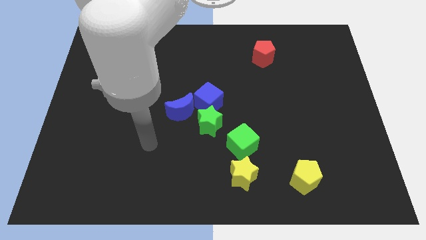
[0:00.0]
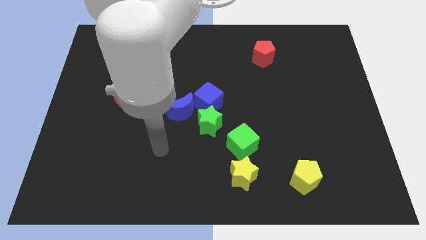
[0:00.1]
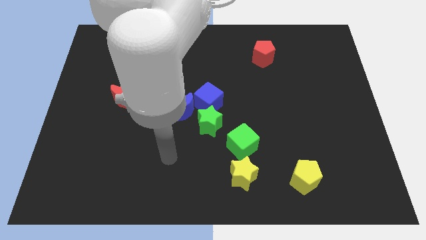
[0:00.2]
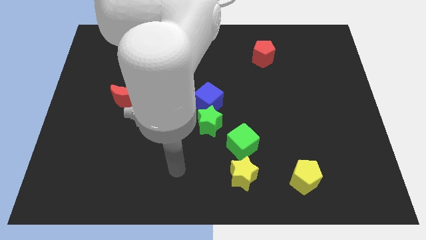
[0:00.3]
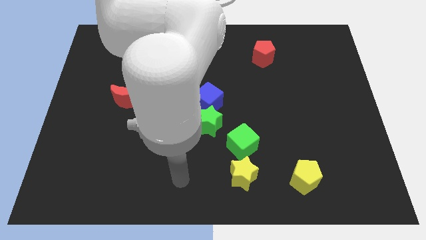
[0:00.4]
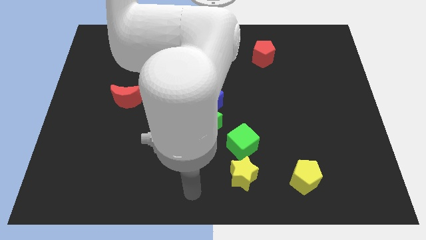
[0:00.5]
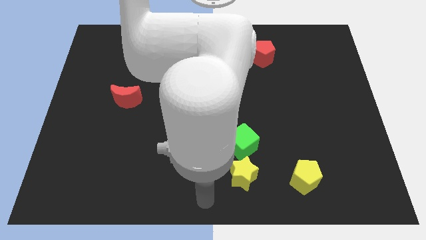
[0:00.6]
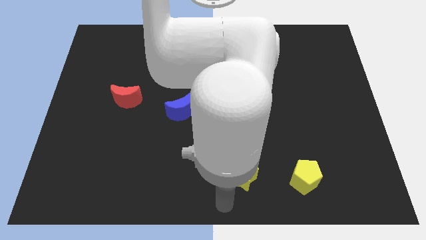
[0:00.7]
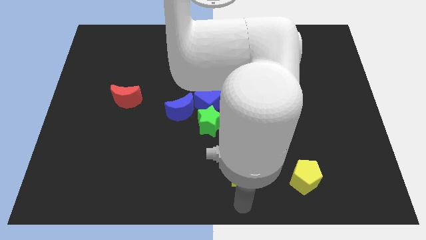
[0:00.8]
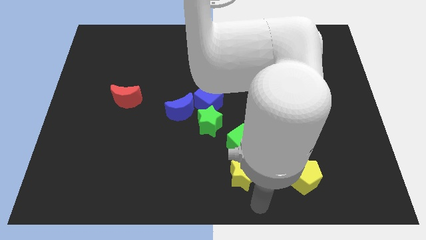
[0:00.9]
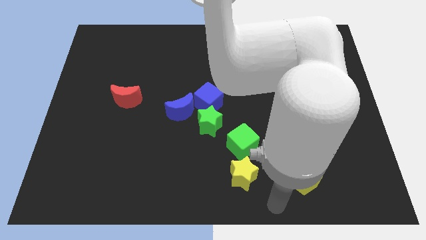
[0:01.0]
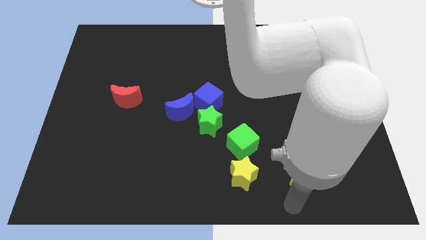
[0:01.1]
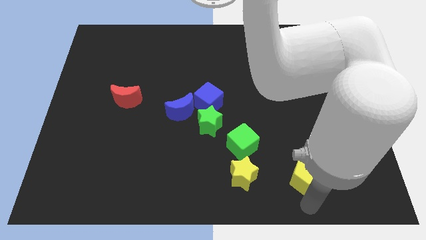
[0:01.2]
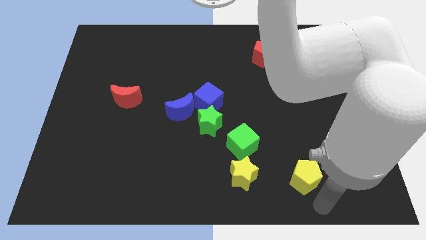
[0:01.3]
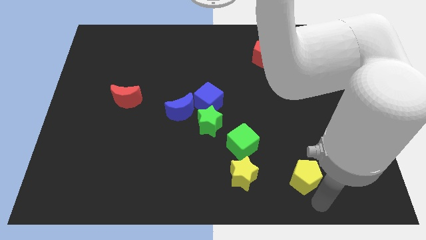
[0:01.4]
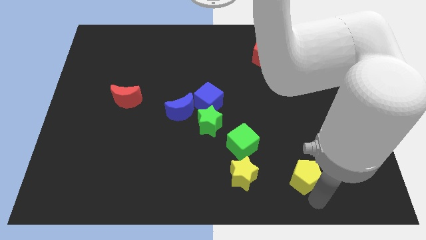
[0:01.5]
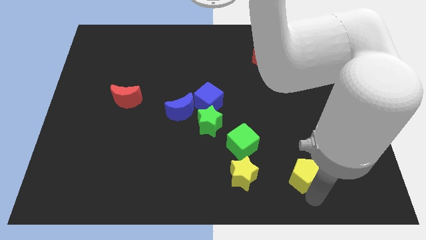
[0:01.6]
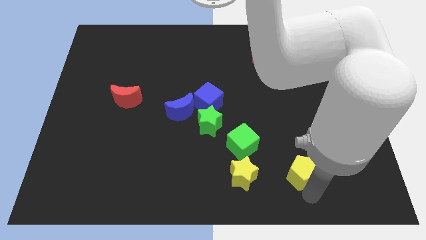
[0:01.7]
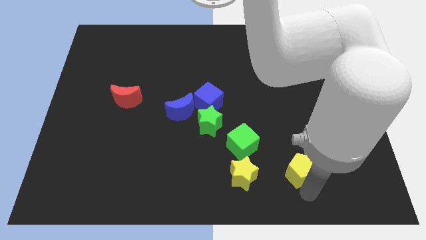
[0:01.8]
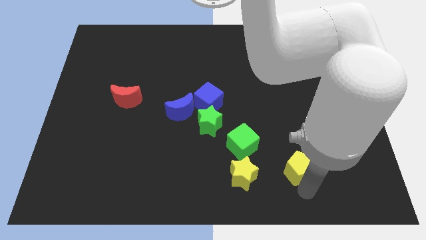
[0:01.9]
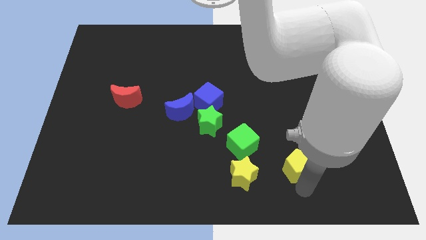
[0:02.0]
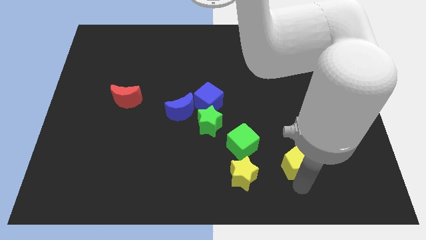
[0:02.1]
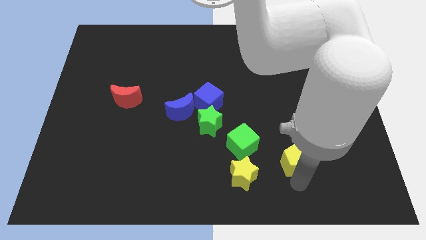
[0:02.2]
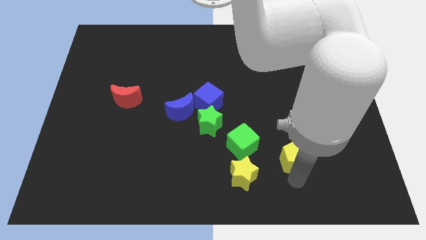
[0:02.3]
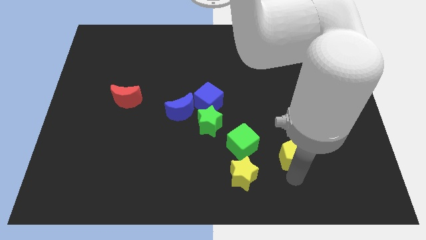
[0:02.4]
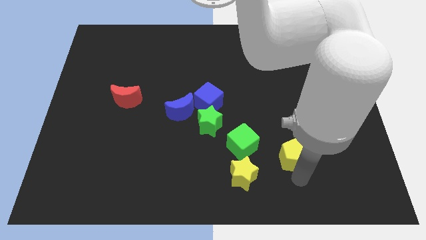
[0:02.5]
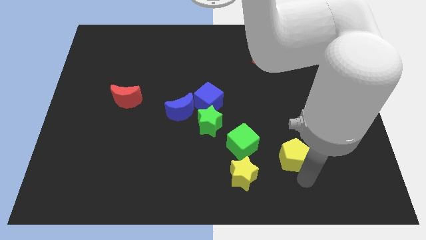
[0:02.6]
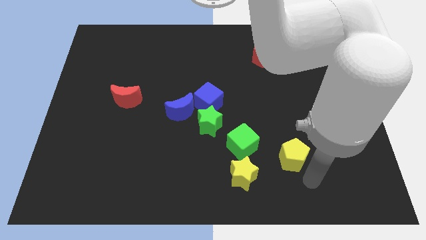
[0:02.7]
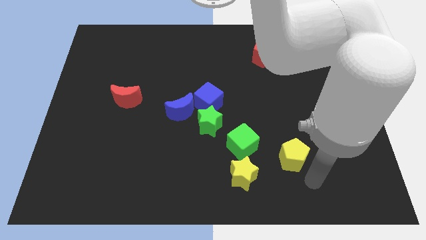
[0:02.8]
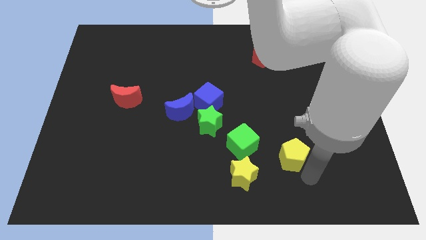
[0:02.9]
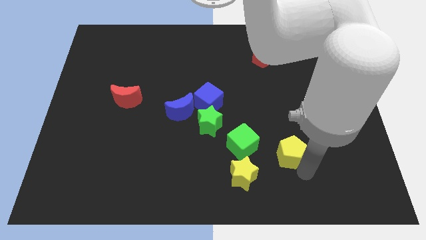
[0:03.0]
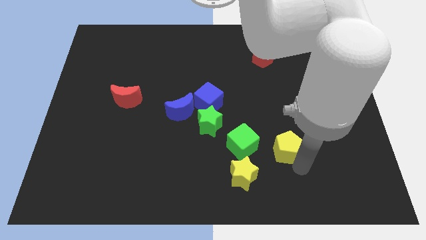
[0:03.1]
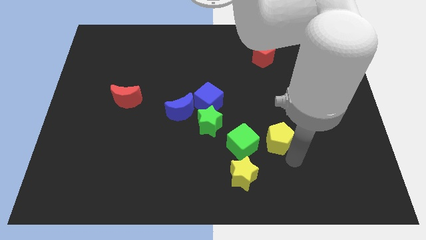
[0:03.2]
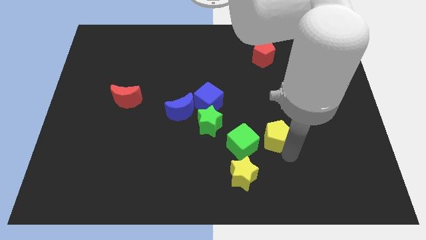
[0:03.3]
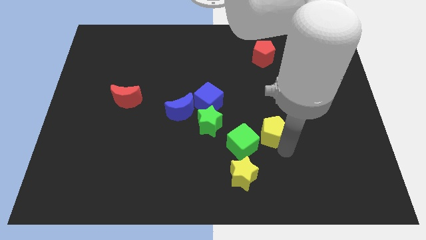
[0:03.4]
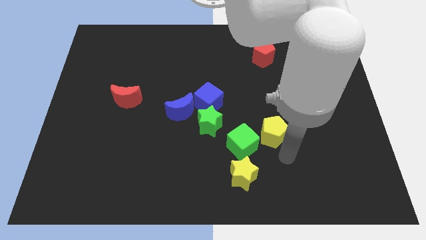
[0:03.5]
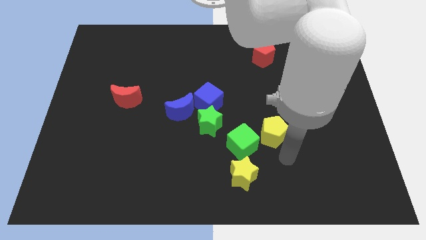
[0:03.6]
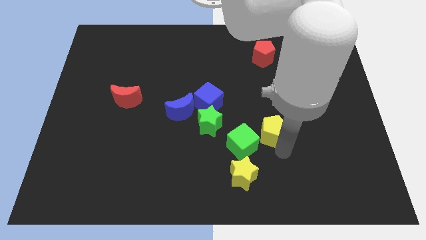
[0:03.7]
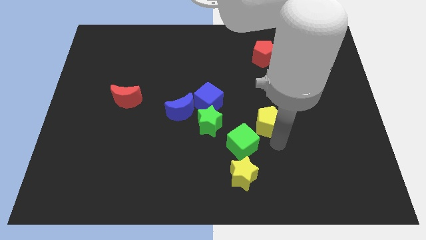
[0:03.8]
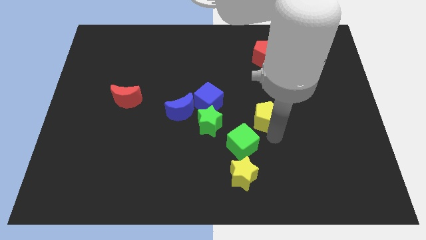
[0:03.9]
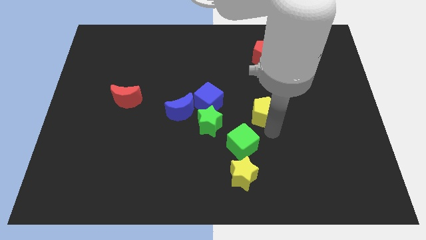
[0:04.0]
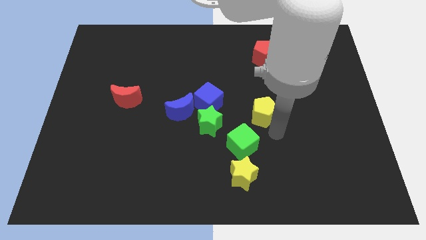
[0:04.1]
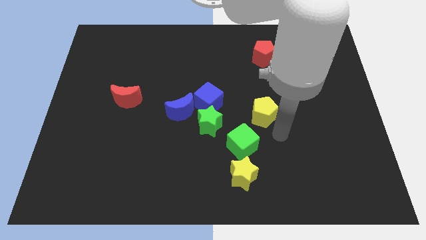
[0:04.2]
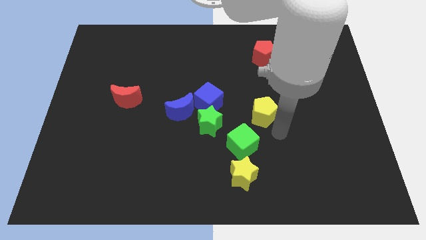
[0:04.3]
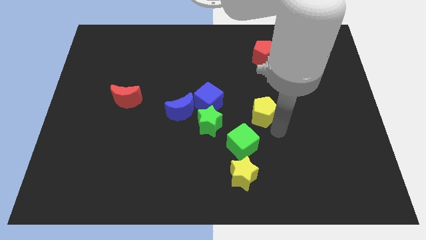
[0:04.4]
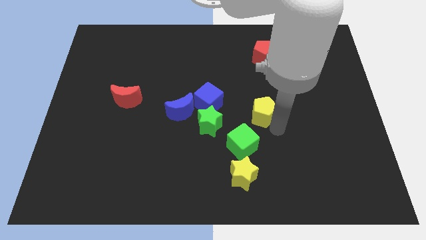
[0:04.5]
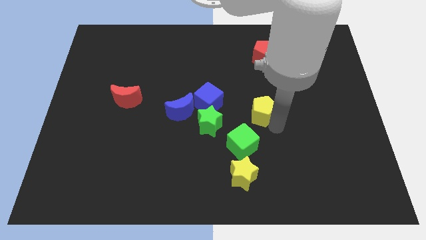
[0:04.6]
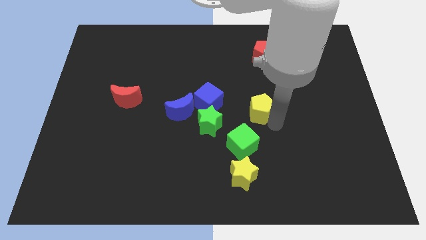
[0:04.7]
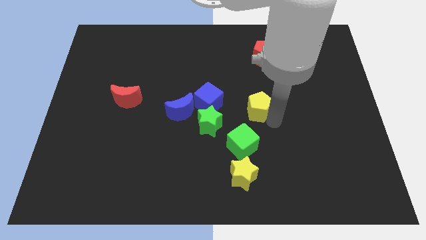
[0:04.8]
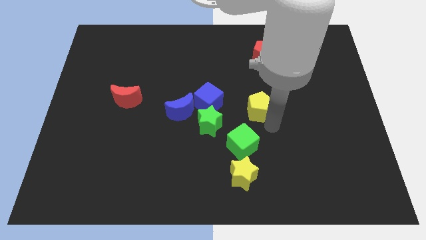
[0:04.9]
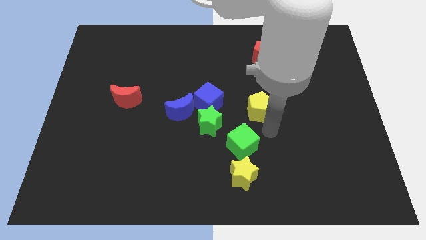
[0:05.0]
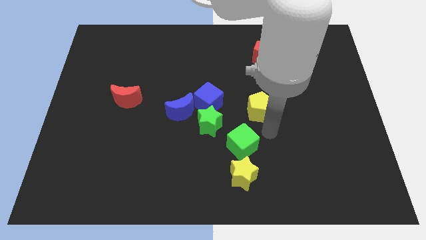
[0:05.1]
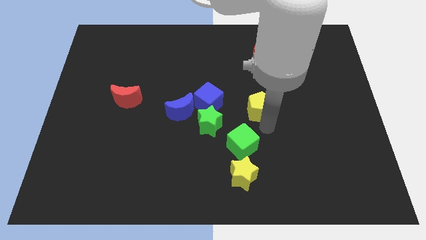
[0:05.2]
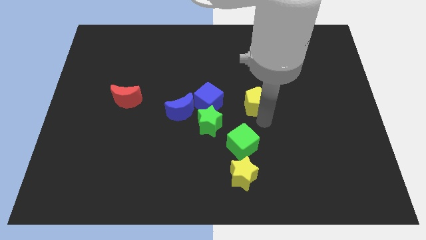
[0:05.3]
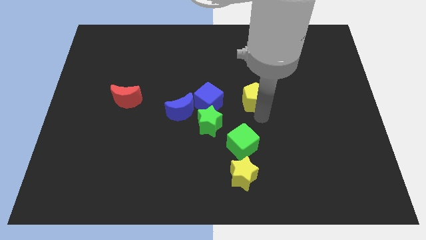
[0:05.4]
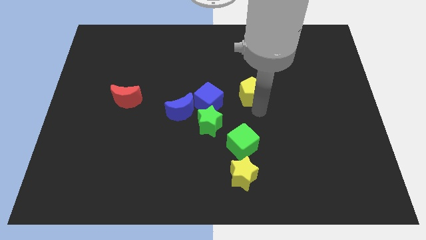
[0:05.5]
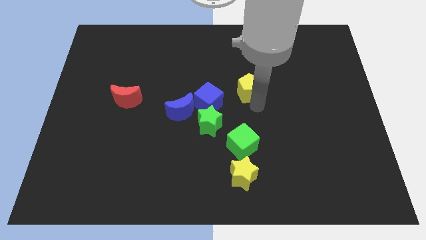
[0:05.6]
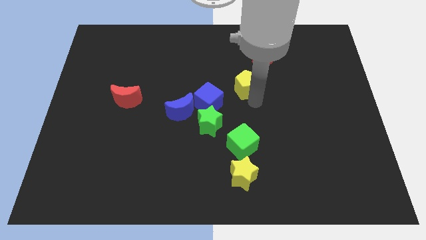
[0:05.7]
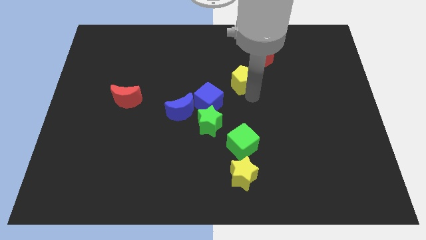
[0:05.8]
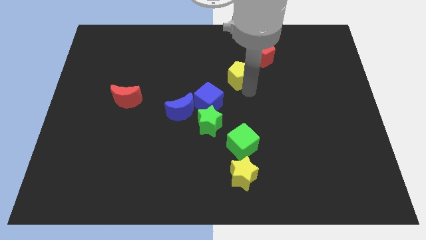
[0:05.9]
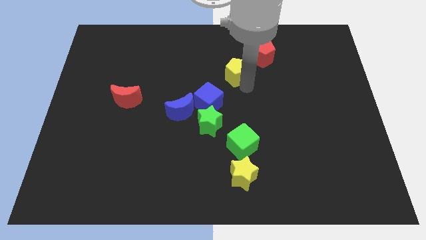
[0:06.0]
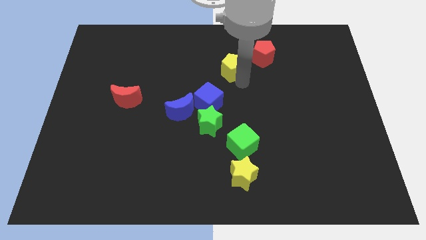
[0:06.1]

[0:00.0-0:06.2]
slide the yellow pentagon left of the red pentagon

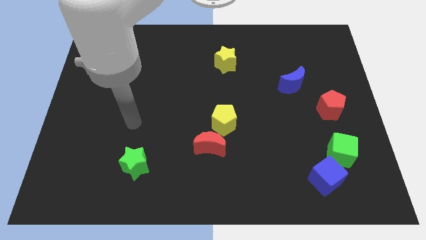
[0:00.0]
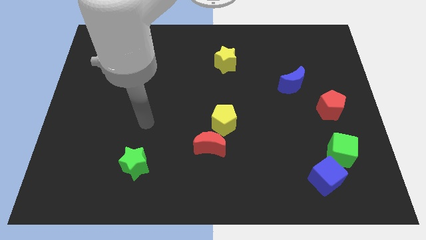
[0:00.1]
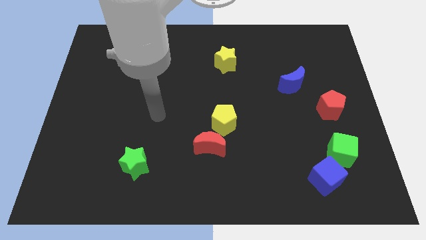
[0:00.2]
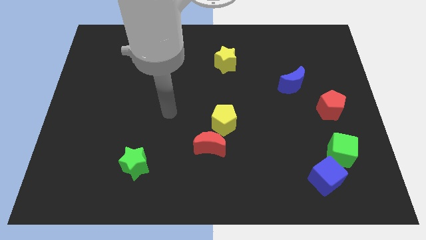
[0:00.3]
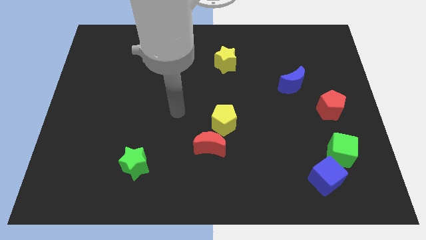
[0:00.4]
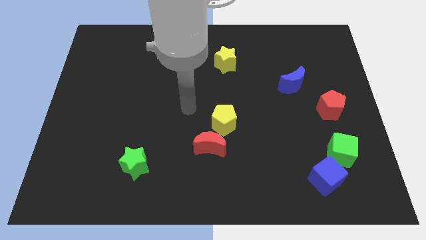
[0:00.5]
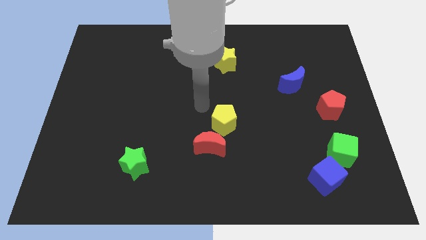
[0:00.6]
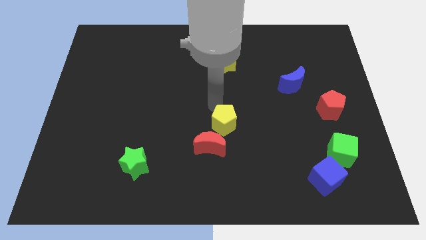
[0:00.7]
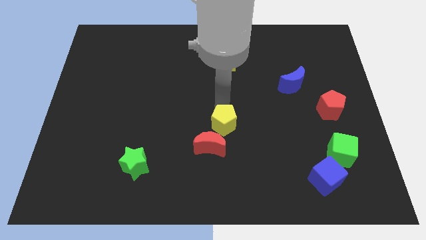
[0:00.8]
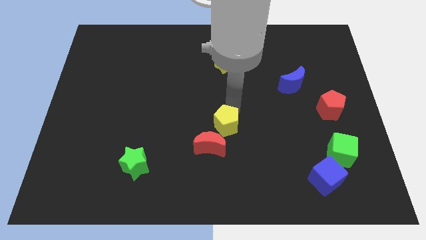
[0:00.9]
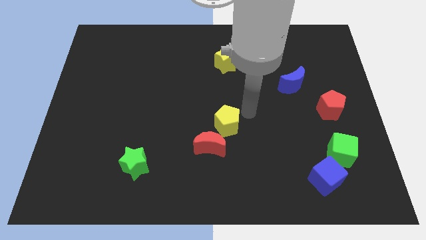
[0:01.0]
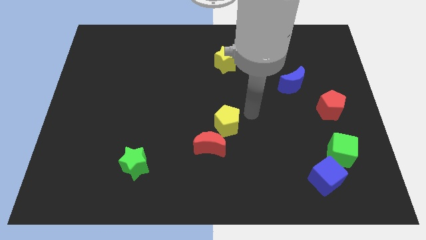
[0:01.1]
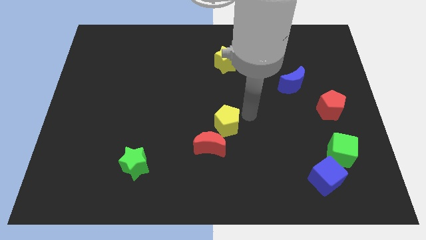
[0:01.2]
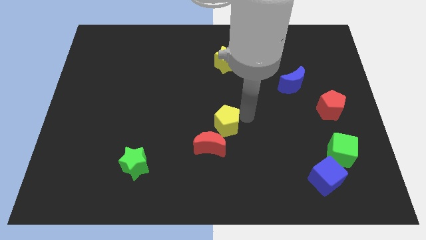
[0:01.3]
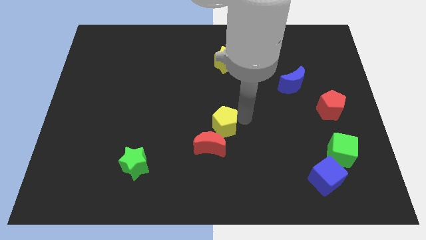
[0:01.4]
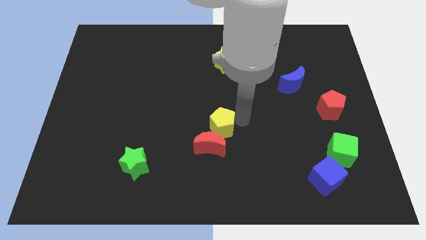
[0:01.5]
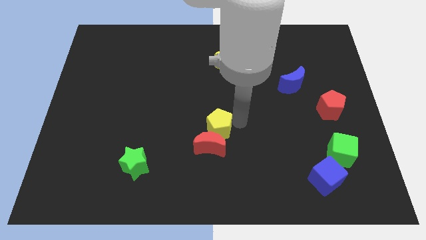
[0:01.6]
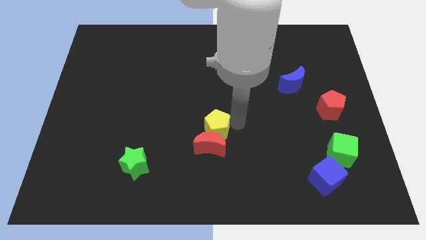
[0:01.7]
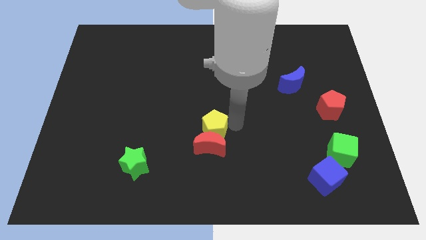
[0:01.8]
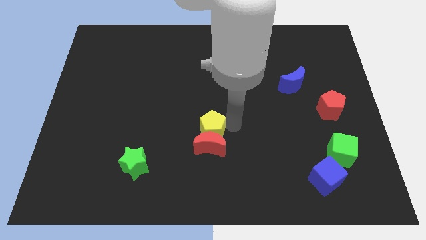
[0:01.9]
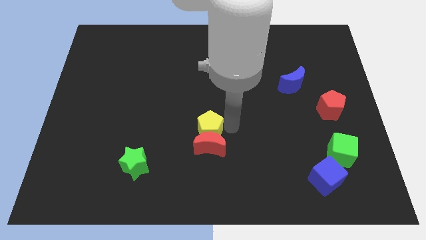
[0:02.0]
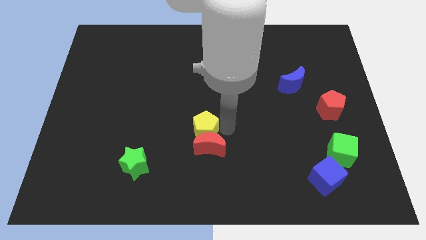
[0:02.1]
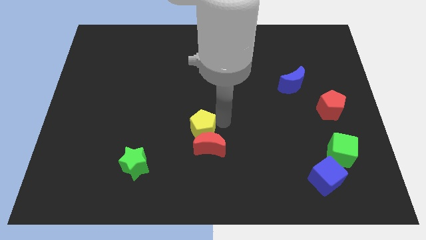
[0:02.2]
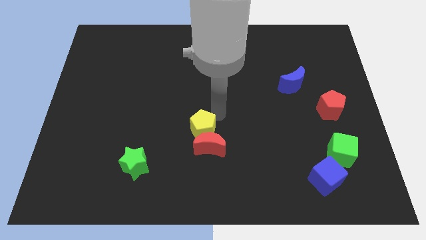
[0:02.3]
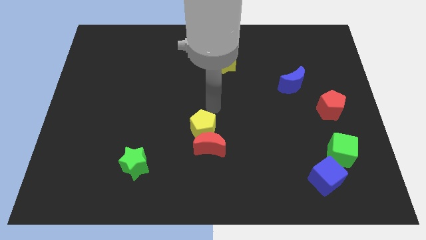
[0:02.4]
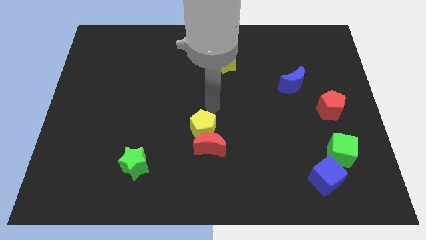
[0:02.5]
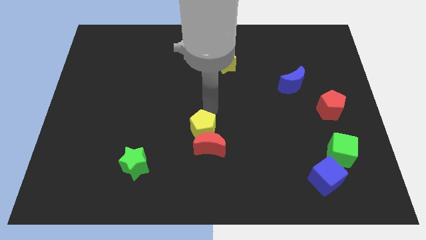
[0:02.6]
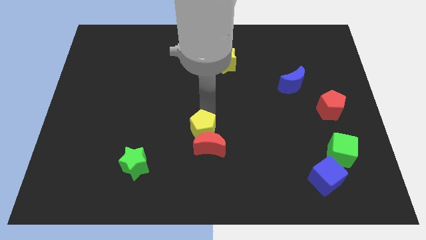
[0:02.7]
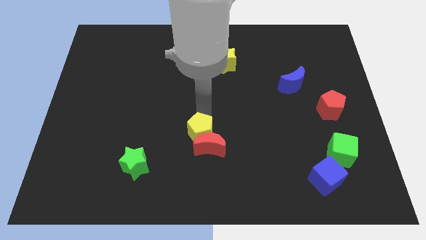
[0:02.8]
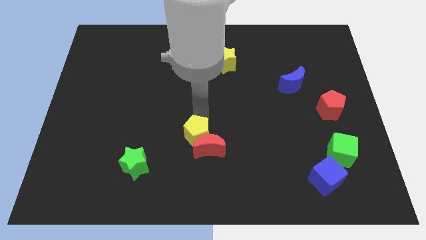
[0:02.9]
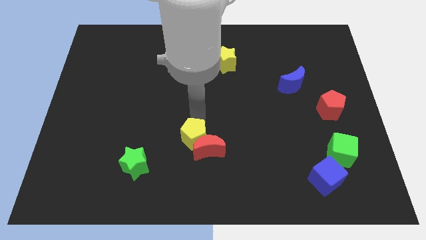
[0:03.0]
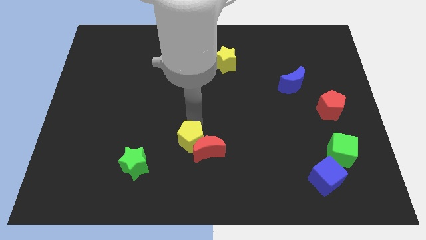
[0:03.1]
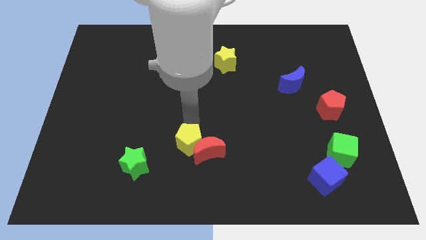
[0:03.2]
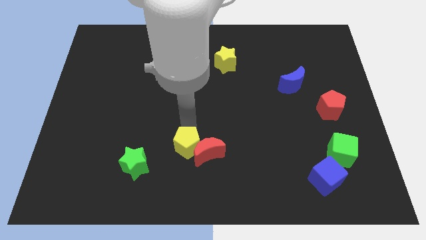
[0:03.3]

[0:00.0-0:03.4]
put the yellow pentagon to the bottom left side of the red moon
